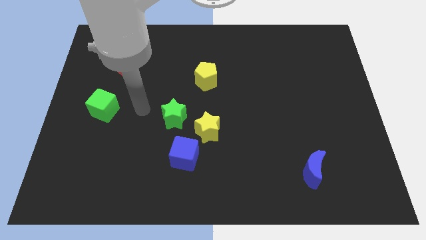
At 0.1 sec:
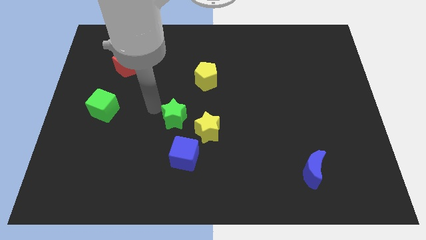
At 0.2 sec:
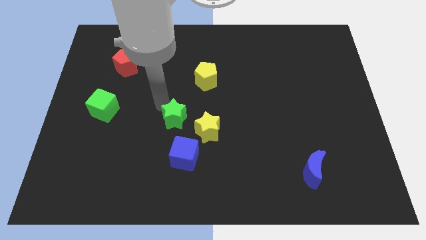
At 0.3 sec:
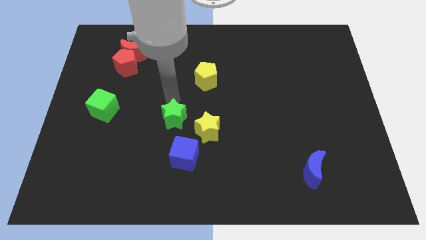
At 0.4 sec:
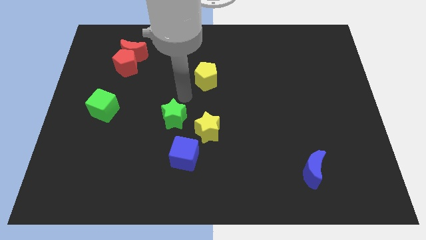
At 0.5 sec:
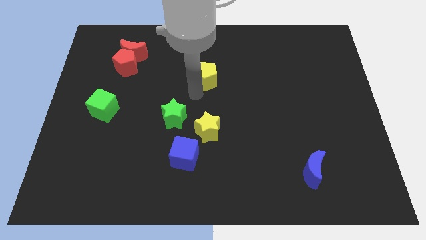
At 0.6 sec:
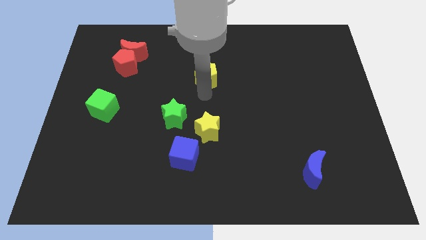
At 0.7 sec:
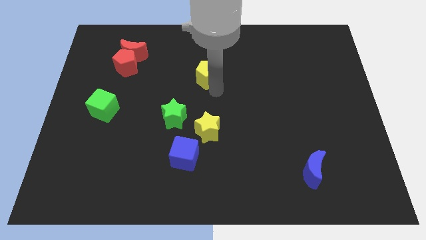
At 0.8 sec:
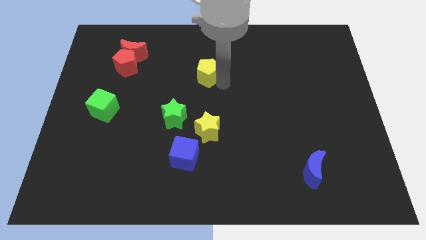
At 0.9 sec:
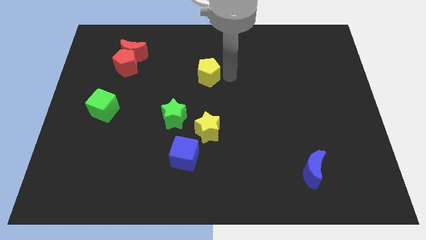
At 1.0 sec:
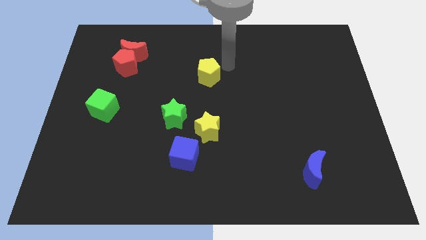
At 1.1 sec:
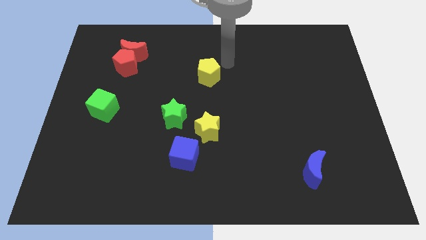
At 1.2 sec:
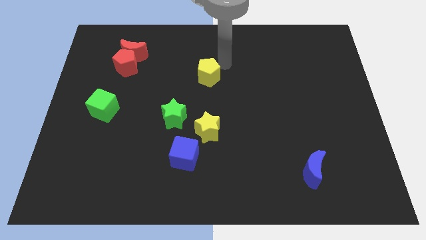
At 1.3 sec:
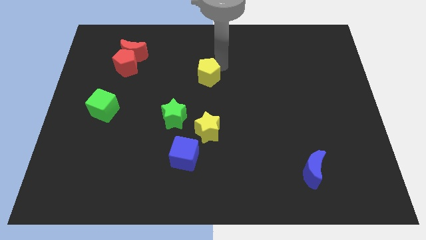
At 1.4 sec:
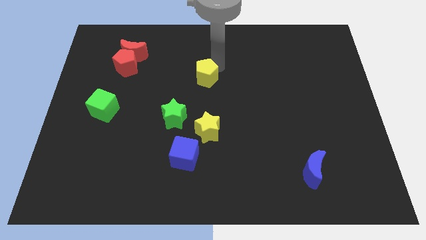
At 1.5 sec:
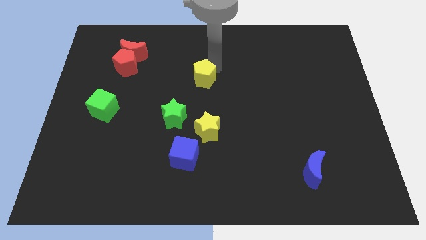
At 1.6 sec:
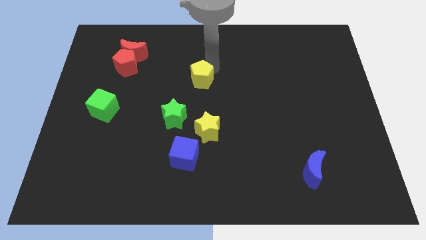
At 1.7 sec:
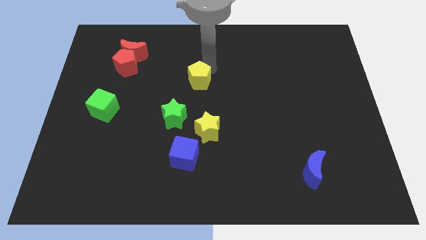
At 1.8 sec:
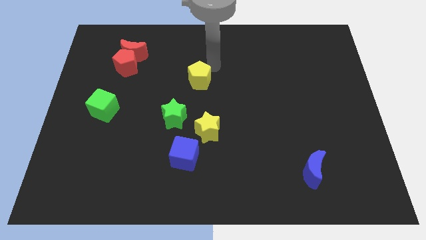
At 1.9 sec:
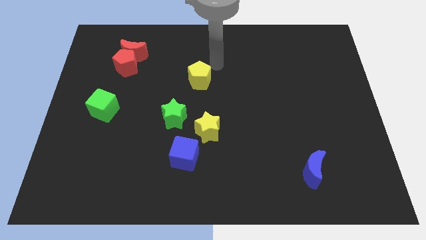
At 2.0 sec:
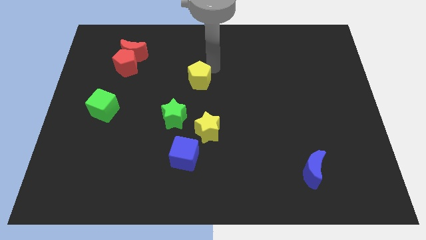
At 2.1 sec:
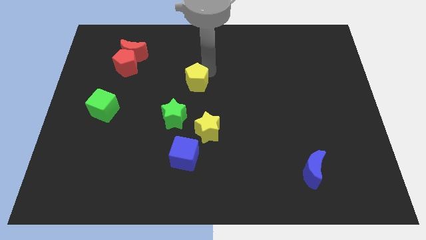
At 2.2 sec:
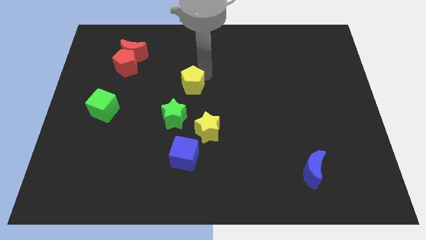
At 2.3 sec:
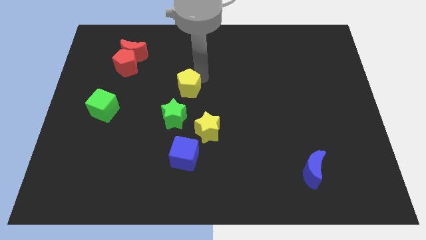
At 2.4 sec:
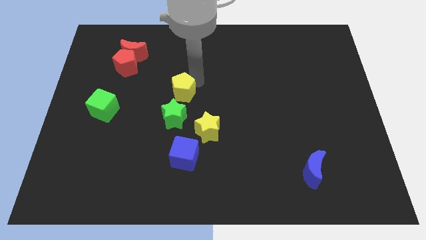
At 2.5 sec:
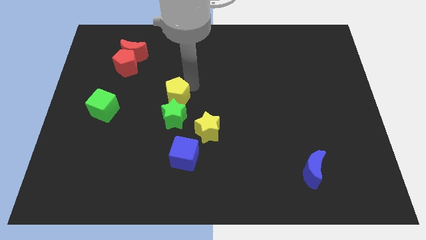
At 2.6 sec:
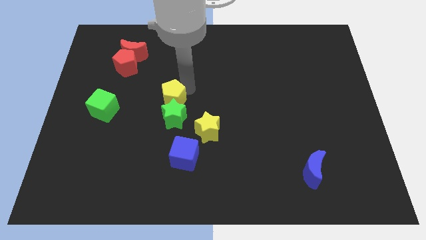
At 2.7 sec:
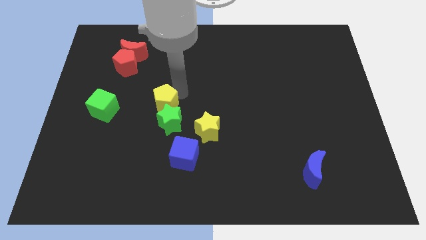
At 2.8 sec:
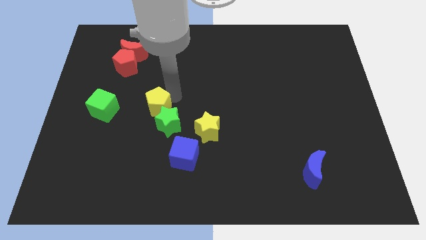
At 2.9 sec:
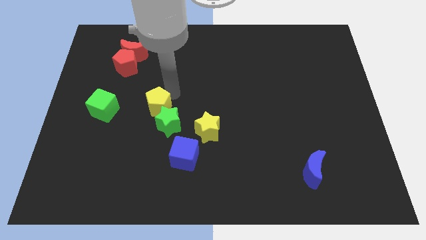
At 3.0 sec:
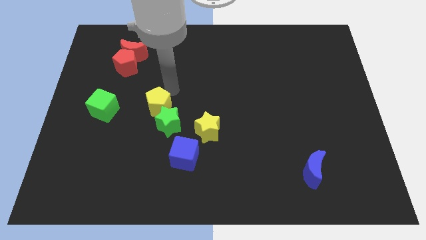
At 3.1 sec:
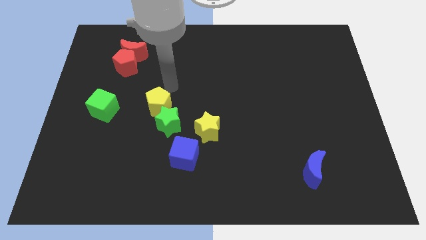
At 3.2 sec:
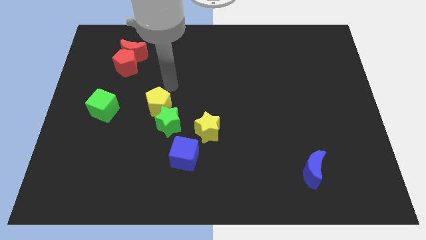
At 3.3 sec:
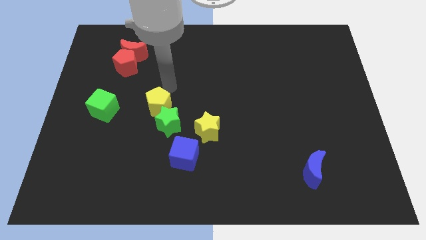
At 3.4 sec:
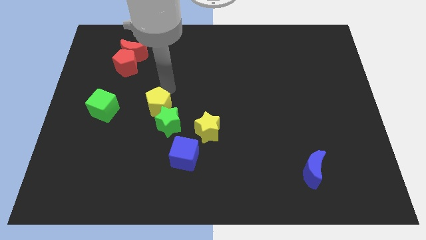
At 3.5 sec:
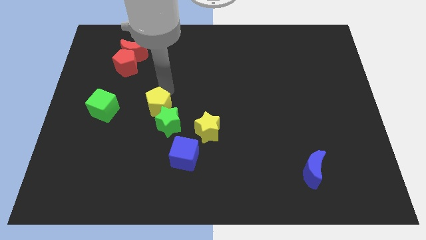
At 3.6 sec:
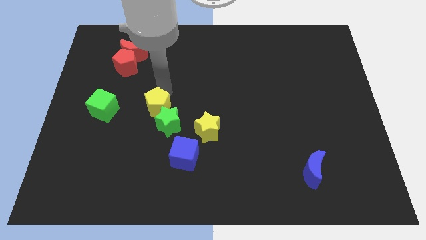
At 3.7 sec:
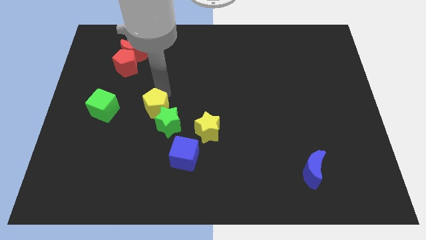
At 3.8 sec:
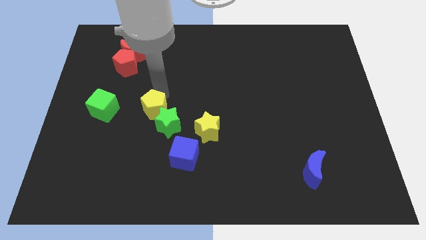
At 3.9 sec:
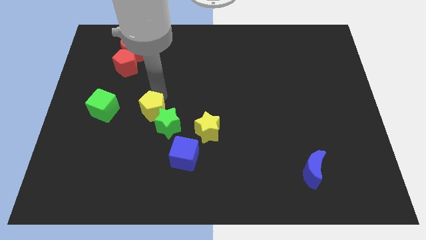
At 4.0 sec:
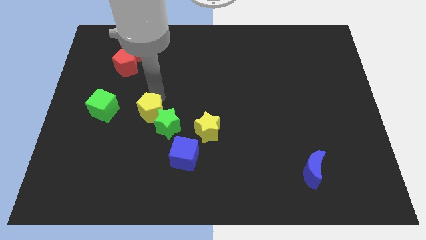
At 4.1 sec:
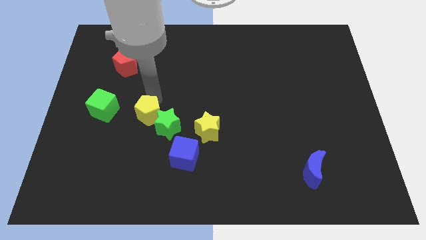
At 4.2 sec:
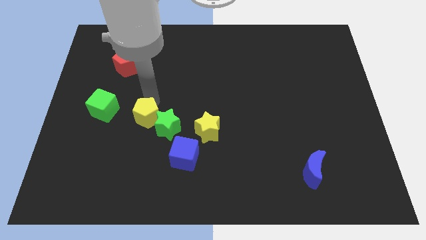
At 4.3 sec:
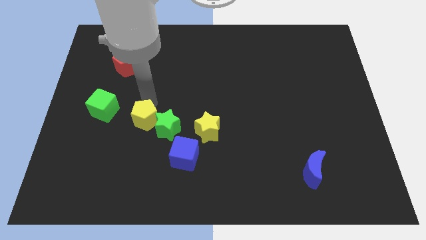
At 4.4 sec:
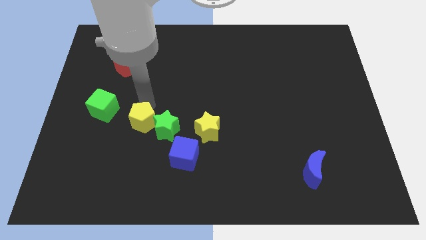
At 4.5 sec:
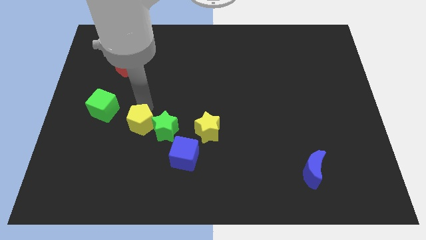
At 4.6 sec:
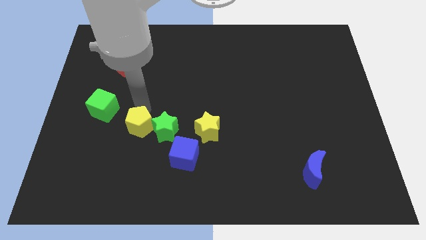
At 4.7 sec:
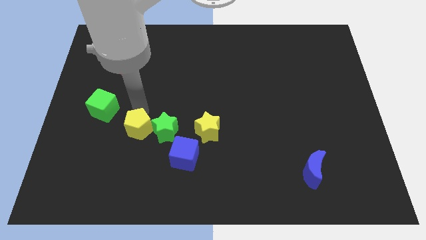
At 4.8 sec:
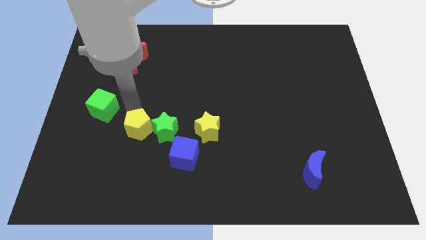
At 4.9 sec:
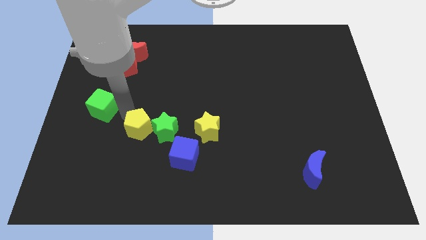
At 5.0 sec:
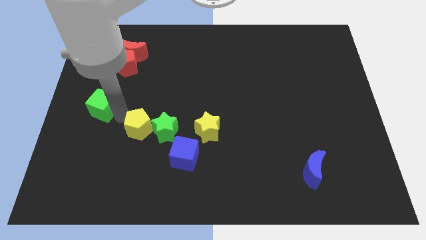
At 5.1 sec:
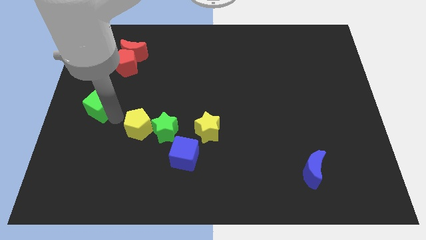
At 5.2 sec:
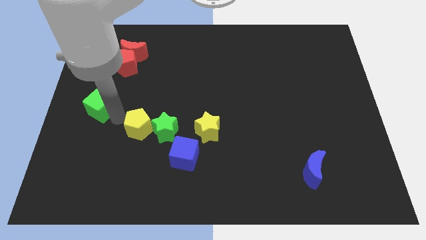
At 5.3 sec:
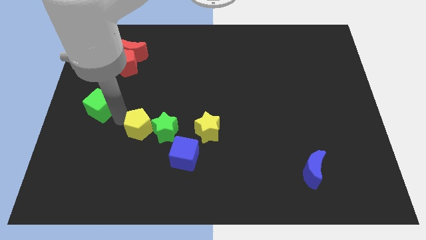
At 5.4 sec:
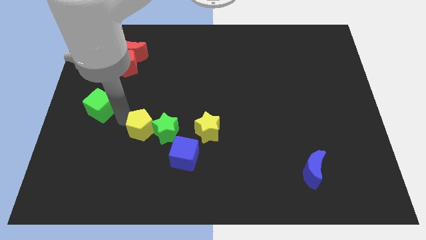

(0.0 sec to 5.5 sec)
slide the yellow pentagon to the top left of the blue cube

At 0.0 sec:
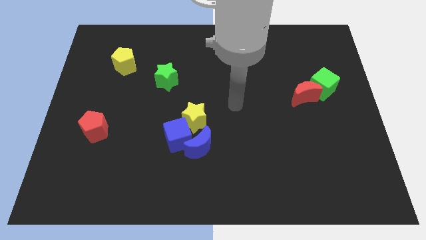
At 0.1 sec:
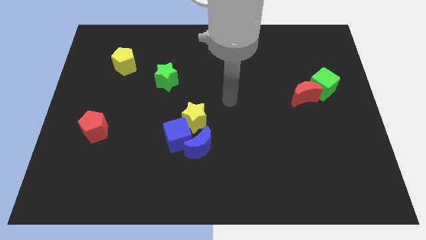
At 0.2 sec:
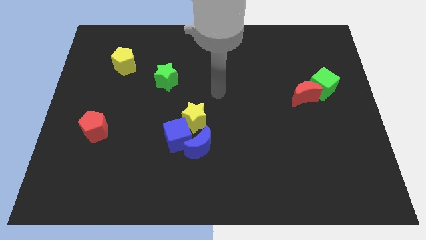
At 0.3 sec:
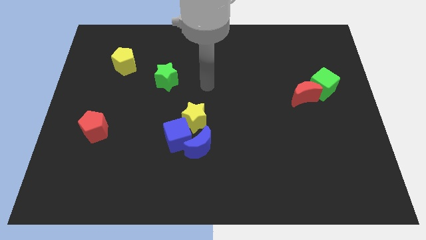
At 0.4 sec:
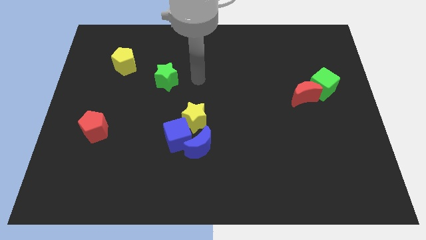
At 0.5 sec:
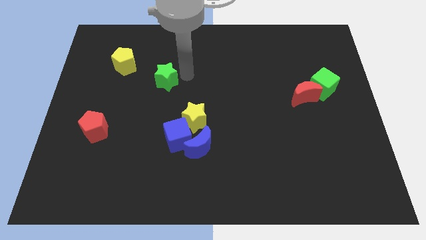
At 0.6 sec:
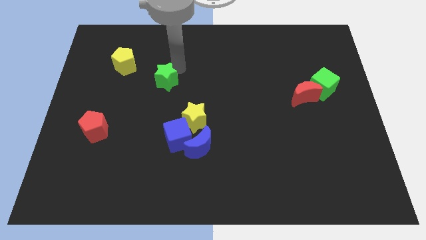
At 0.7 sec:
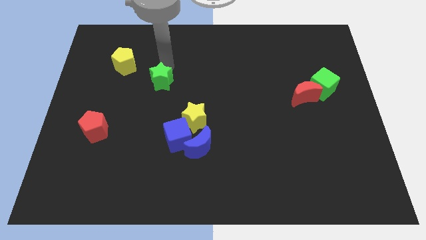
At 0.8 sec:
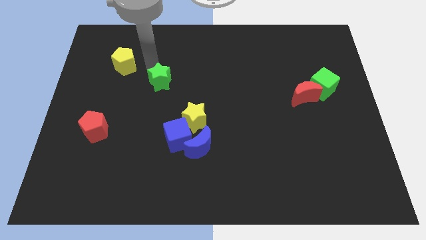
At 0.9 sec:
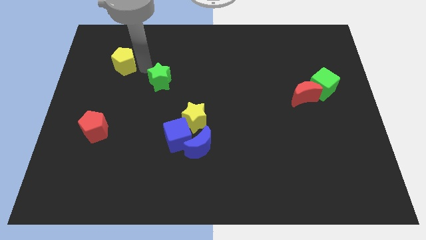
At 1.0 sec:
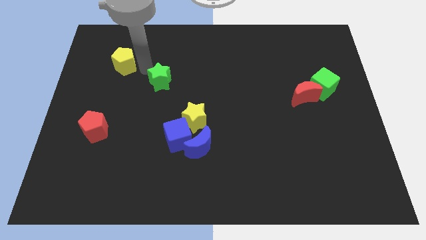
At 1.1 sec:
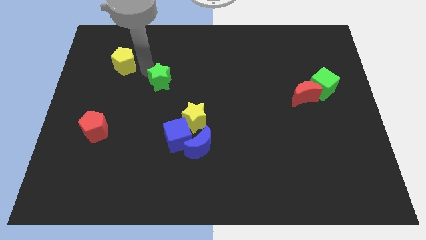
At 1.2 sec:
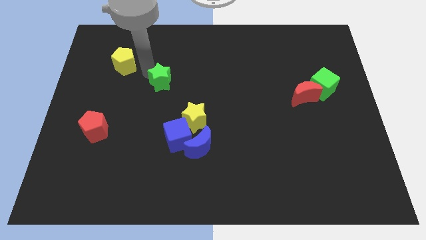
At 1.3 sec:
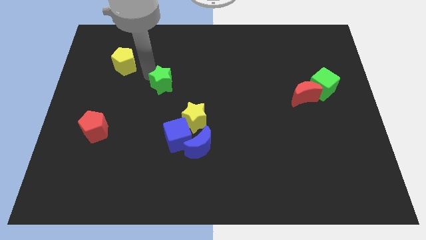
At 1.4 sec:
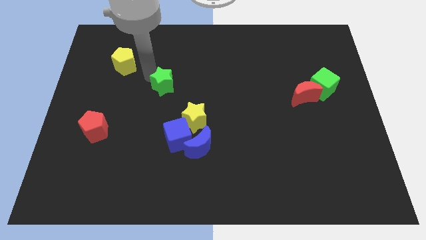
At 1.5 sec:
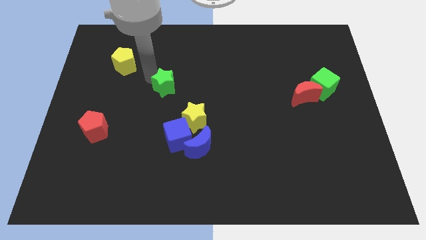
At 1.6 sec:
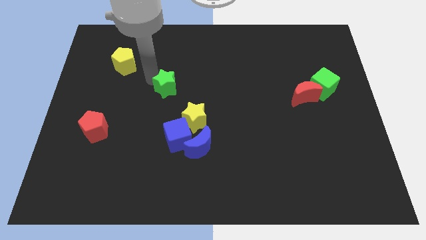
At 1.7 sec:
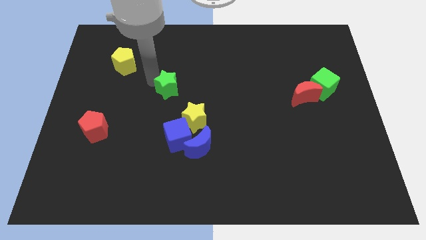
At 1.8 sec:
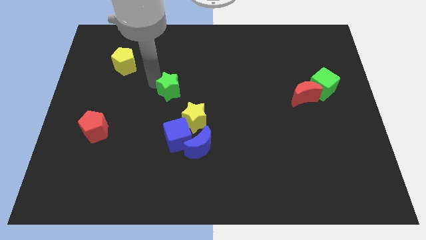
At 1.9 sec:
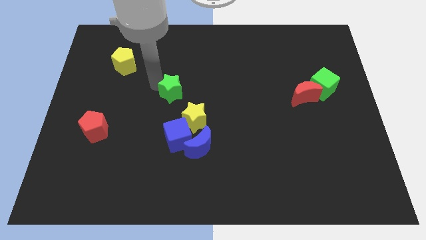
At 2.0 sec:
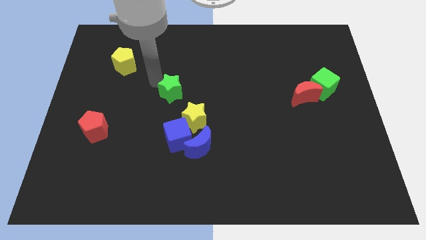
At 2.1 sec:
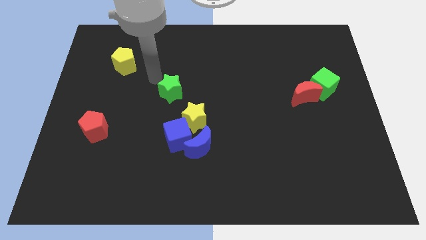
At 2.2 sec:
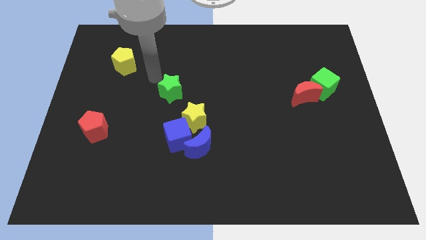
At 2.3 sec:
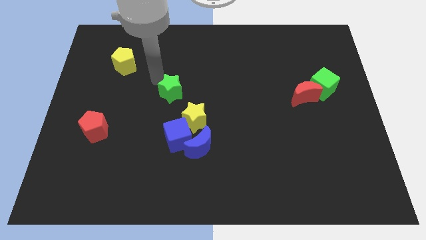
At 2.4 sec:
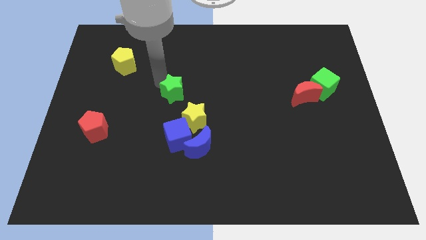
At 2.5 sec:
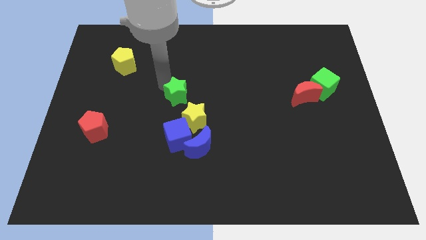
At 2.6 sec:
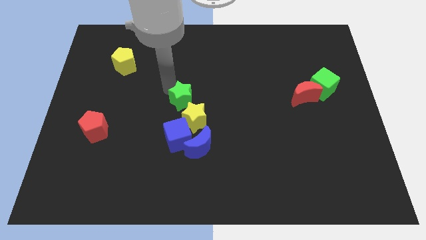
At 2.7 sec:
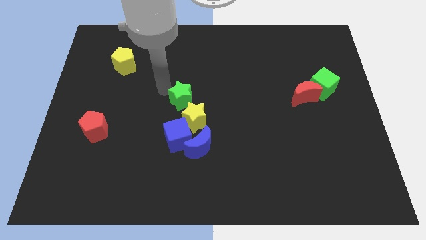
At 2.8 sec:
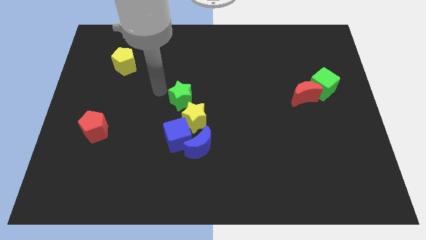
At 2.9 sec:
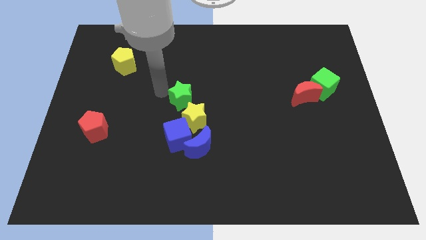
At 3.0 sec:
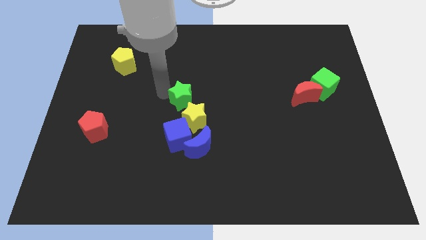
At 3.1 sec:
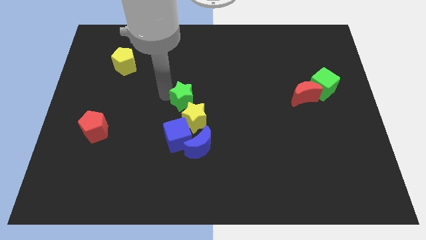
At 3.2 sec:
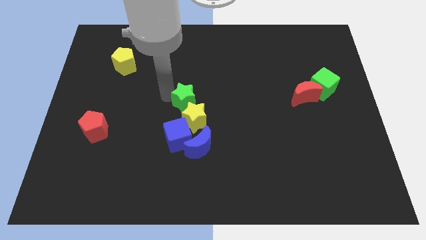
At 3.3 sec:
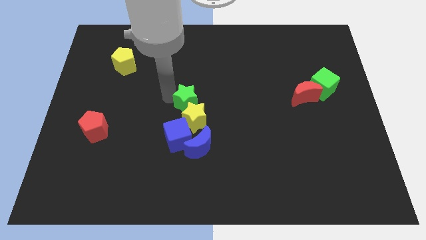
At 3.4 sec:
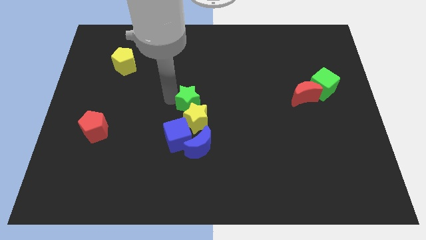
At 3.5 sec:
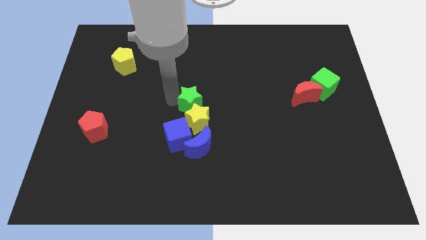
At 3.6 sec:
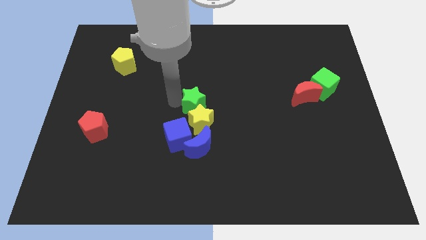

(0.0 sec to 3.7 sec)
move the green star to the top right side of the blue cube
